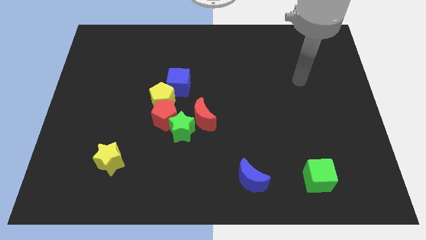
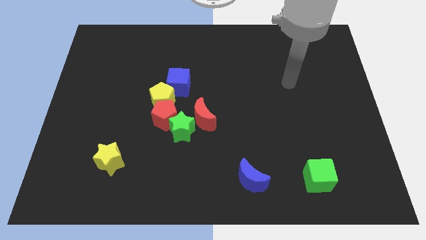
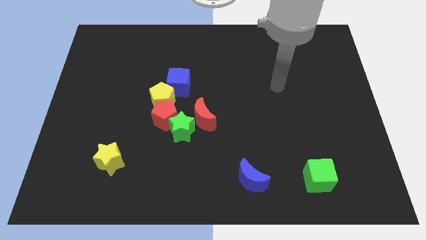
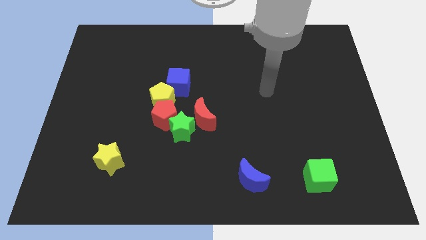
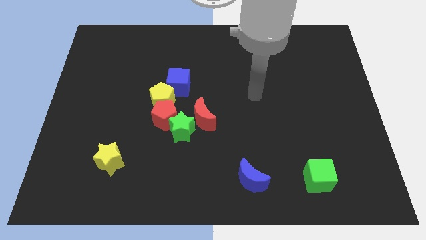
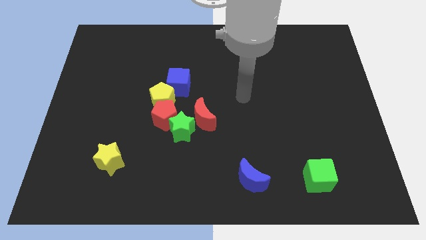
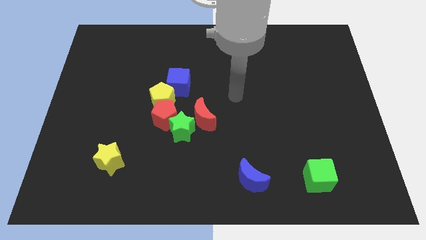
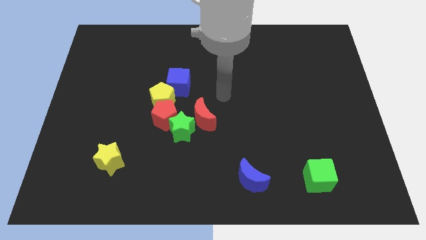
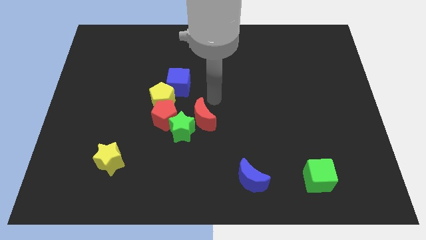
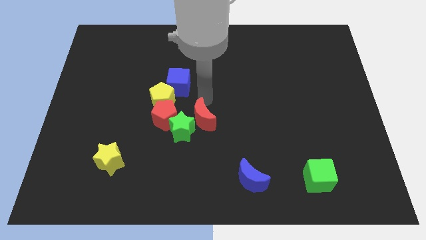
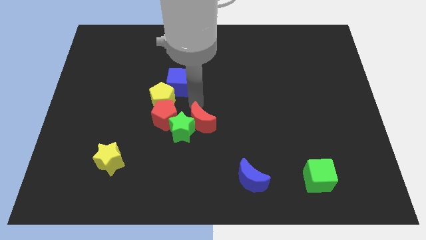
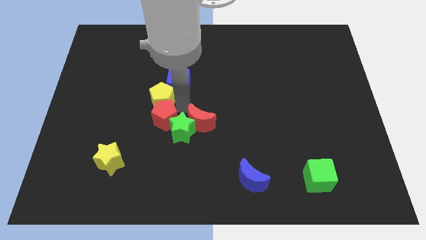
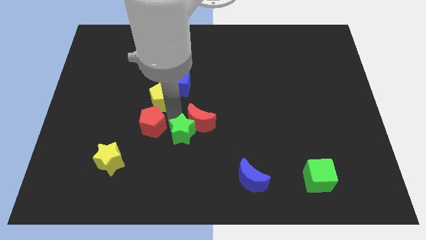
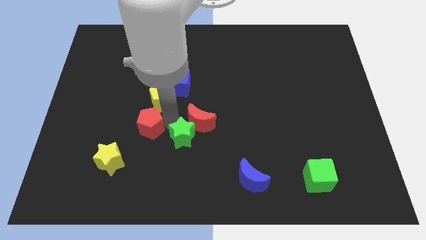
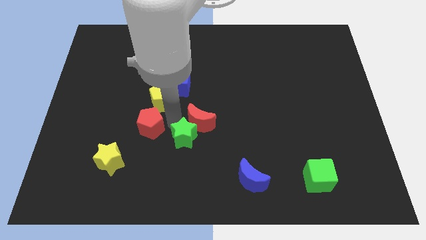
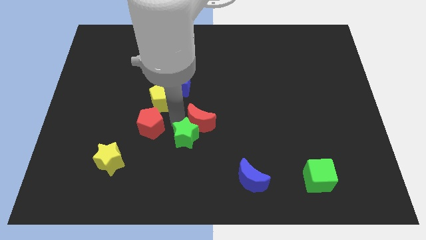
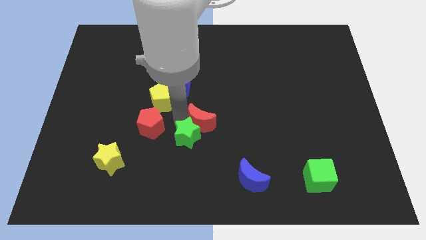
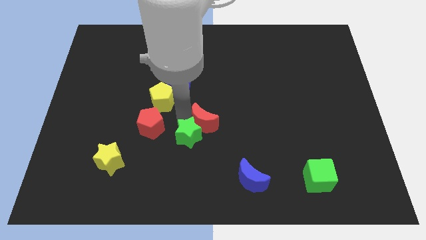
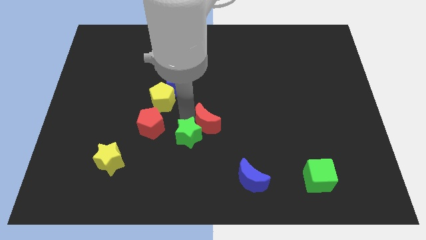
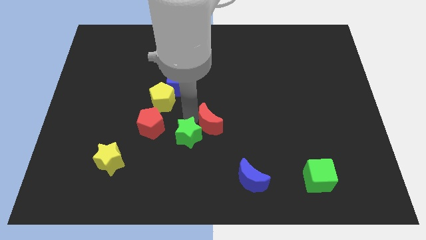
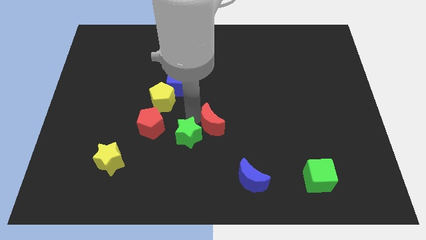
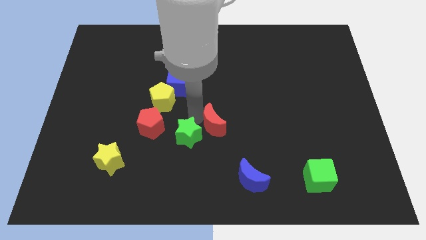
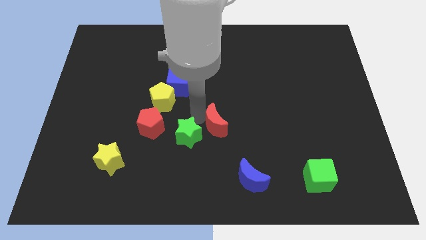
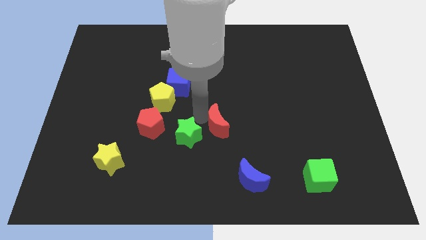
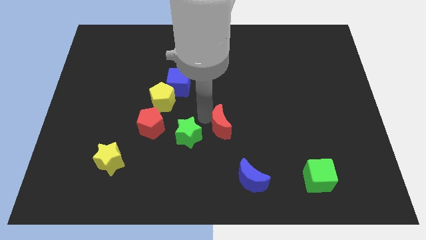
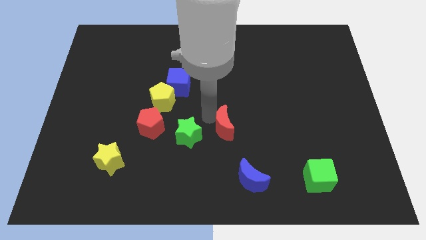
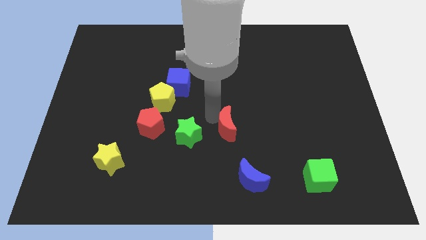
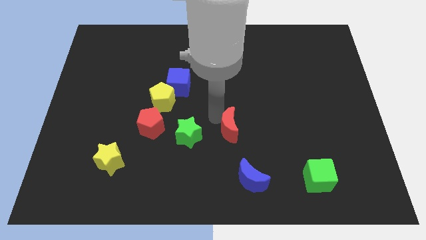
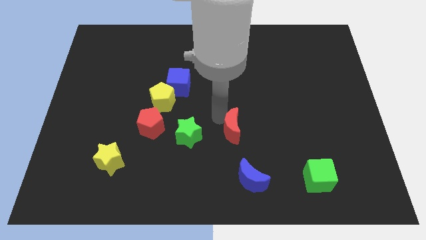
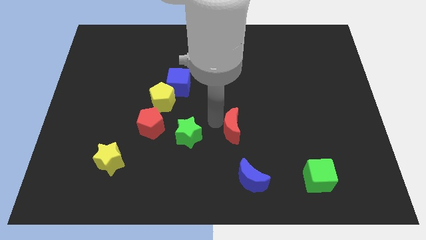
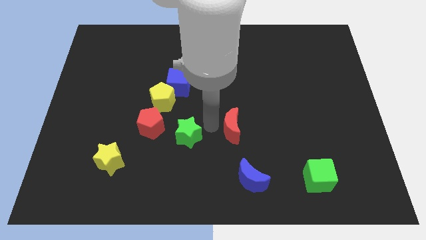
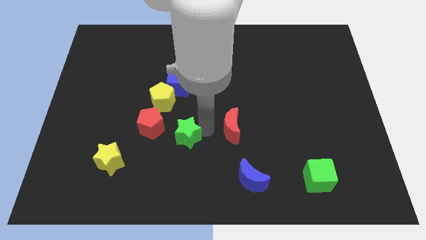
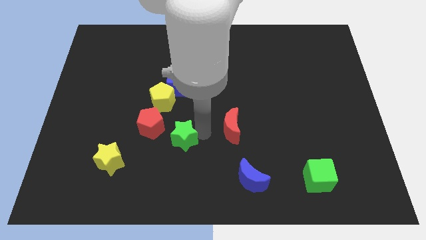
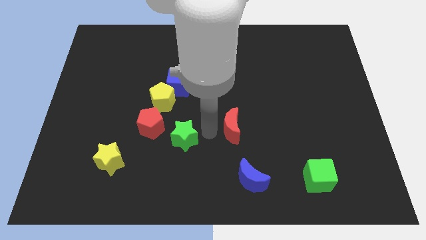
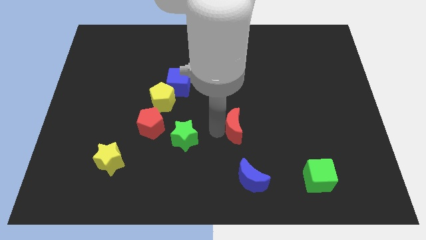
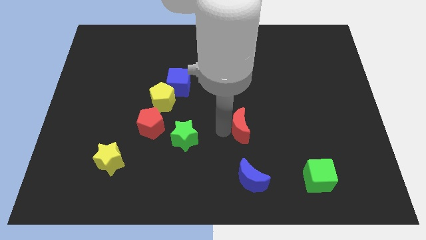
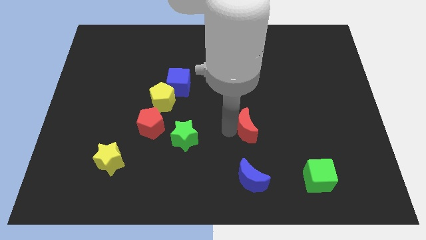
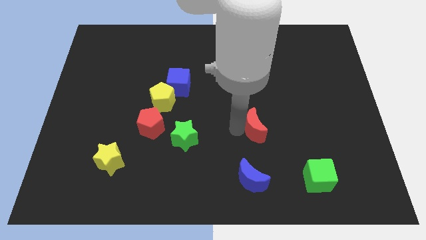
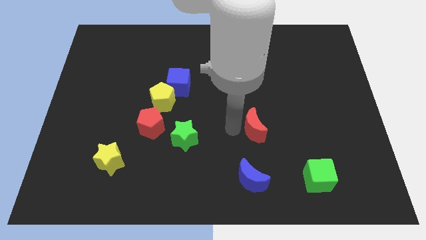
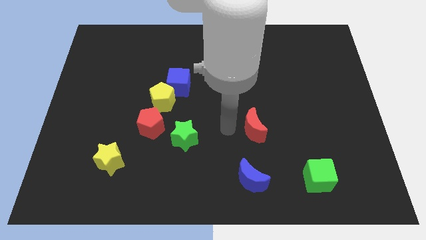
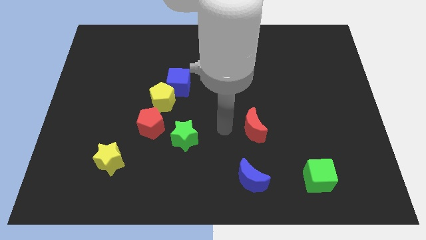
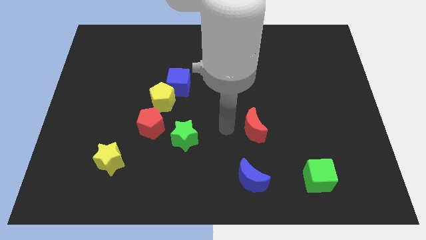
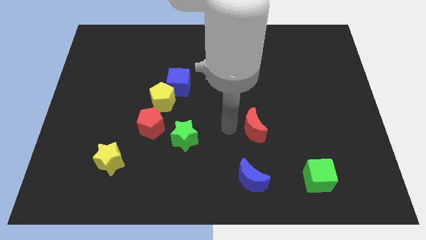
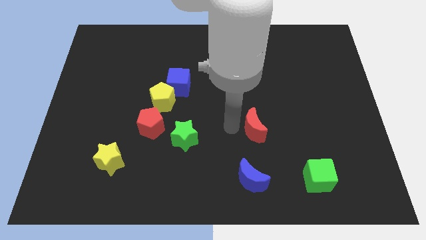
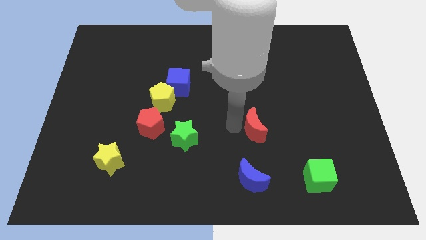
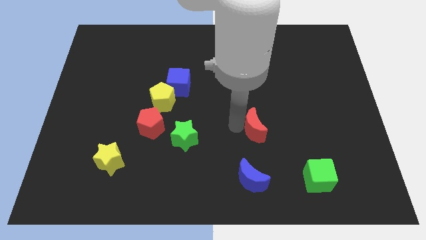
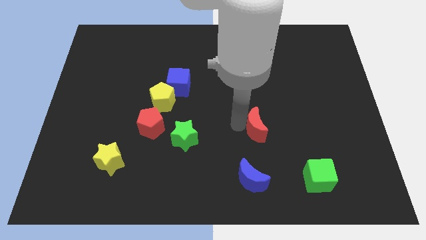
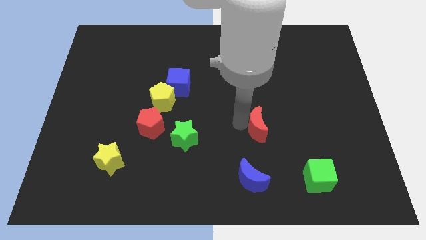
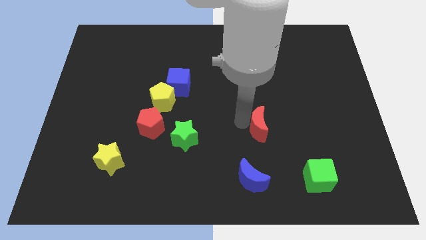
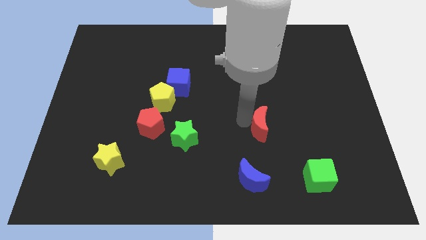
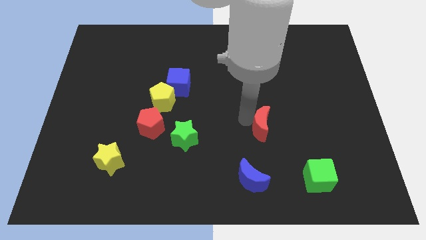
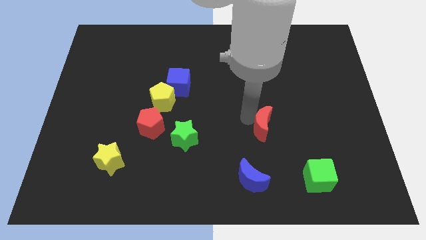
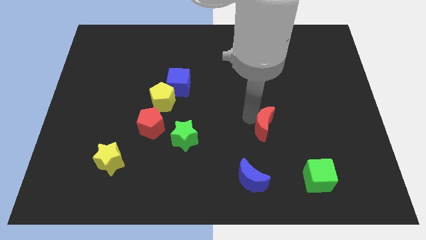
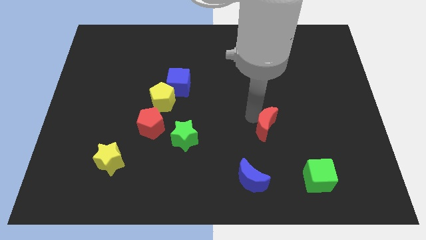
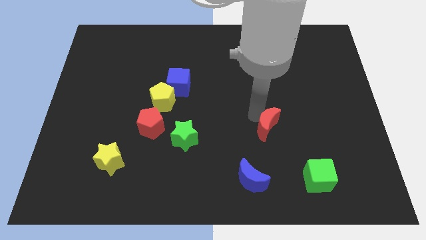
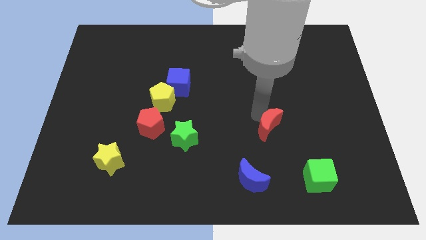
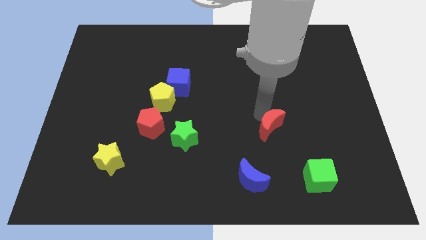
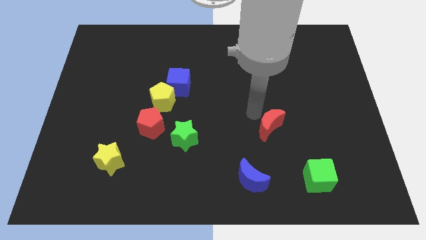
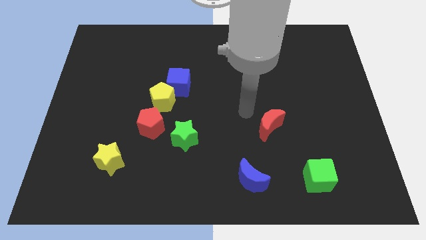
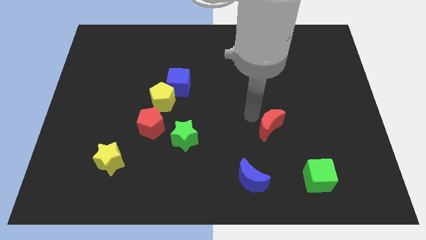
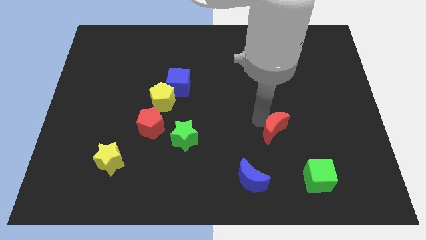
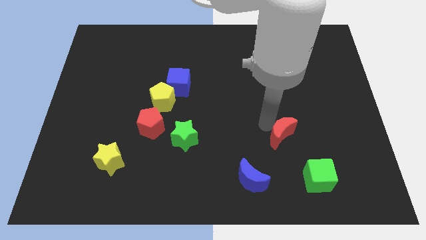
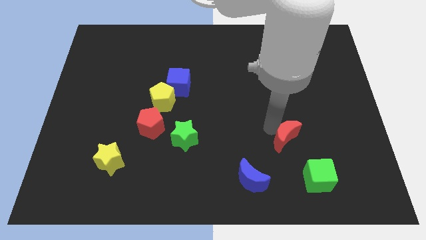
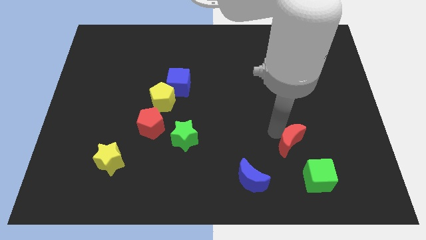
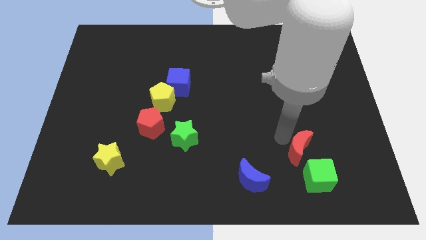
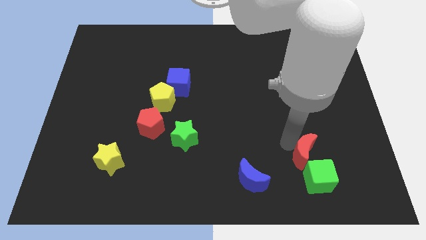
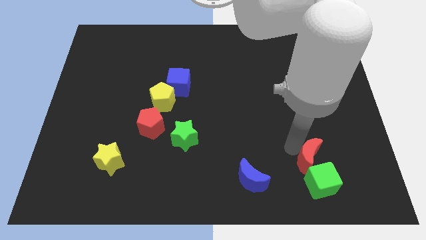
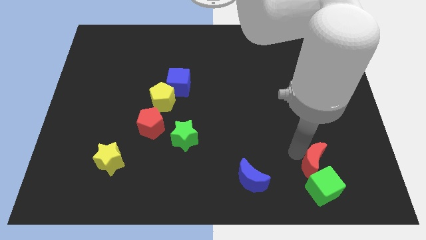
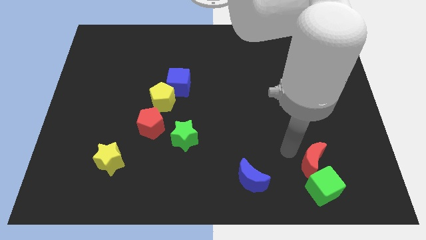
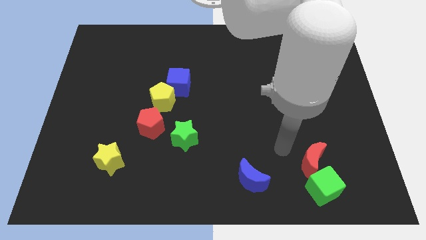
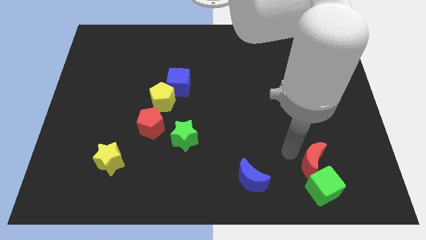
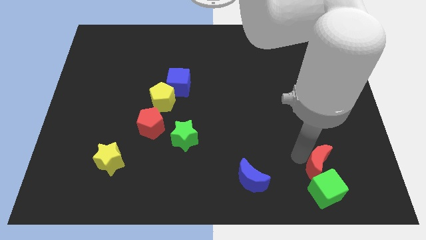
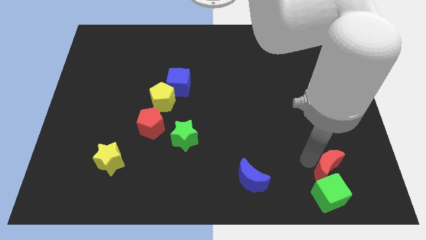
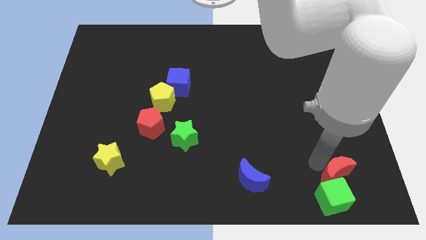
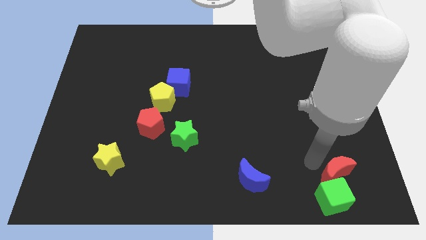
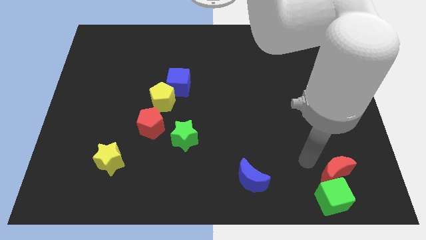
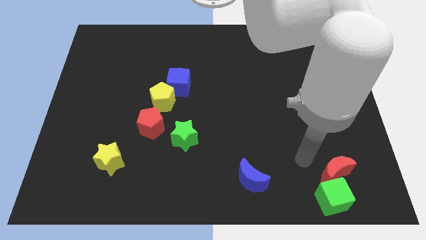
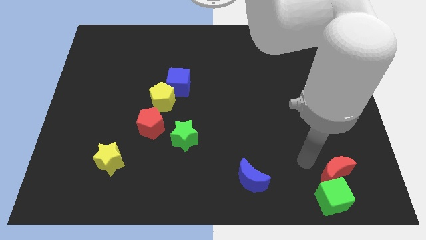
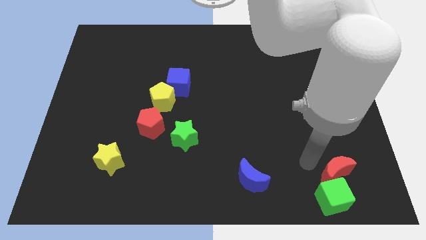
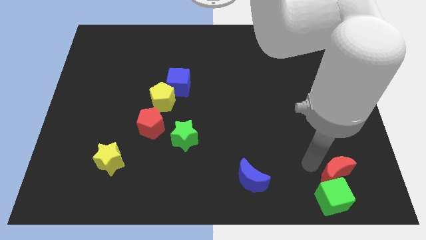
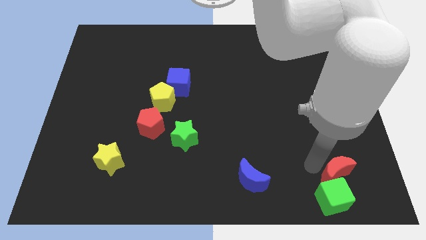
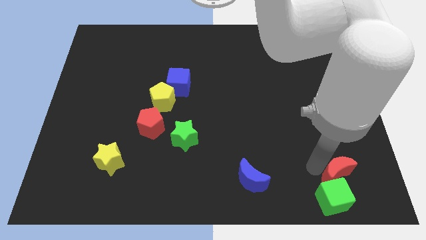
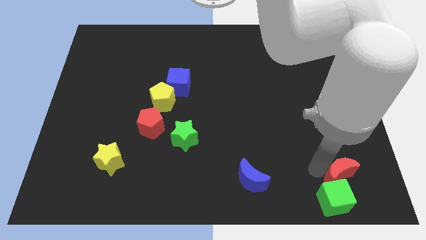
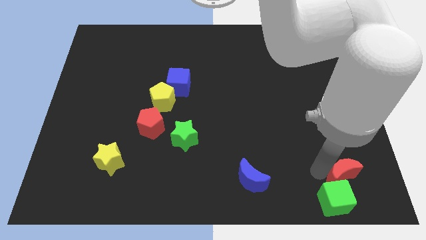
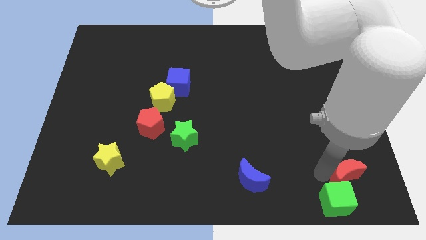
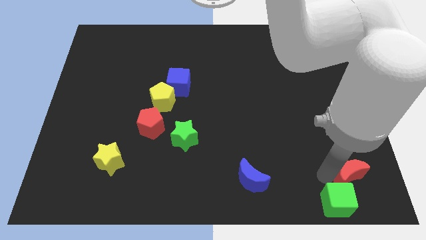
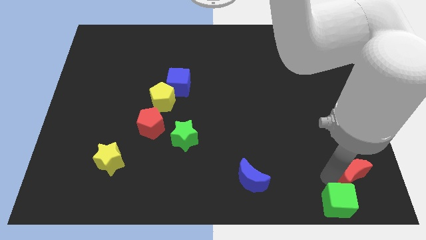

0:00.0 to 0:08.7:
push the red moon to the bottom right corner
